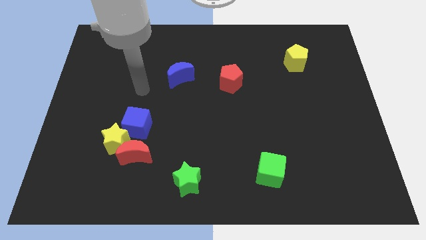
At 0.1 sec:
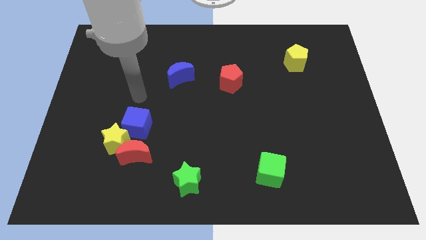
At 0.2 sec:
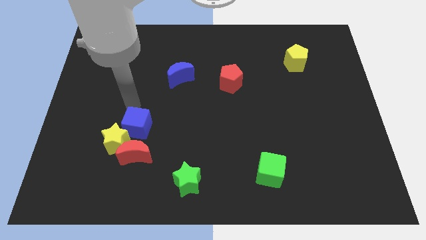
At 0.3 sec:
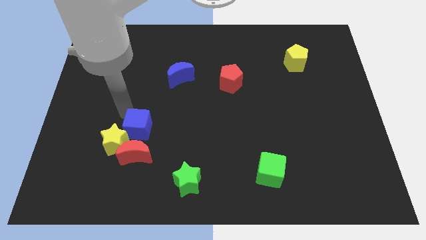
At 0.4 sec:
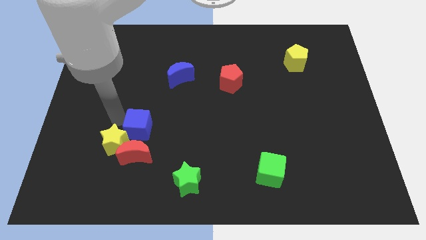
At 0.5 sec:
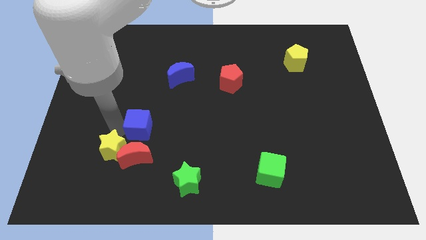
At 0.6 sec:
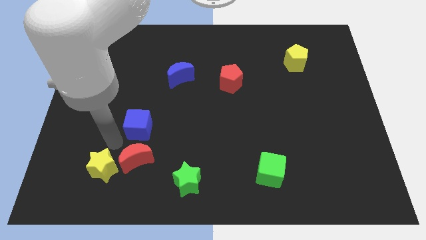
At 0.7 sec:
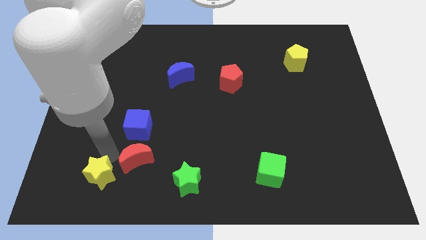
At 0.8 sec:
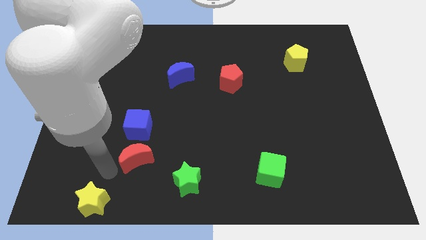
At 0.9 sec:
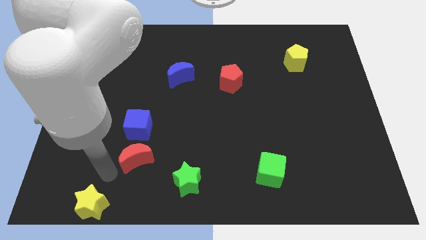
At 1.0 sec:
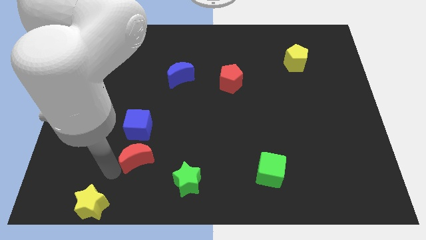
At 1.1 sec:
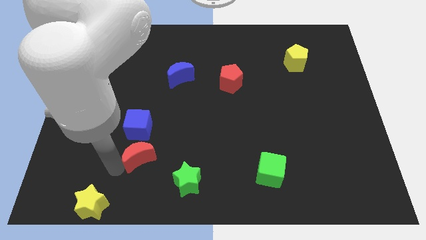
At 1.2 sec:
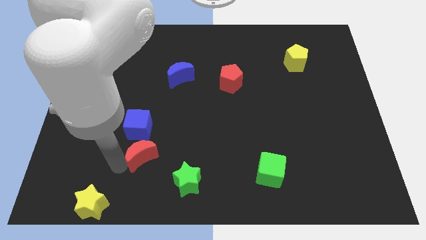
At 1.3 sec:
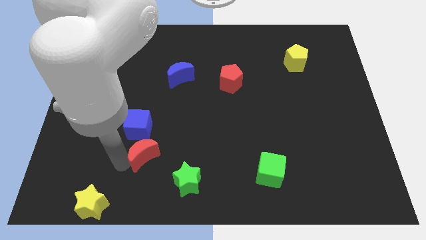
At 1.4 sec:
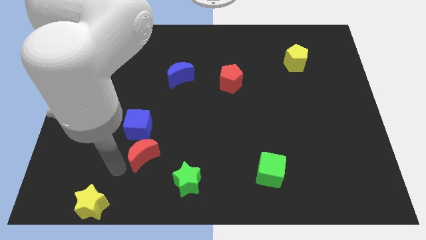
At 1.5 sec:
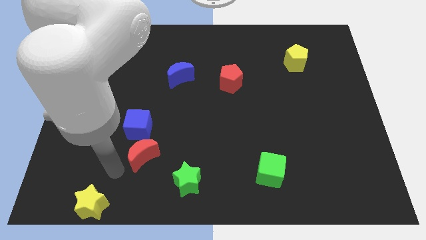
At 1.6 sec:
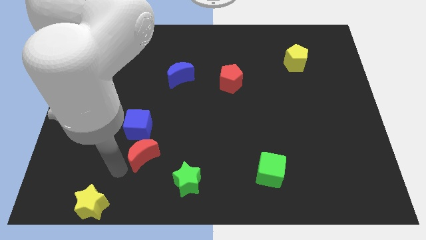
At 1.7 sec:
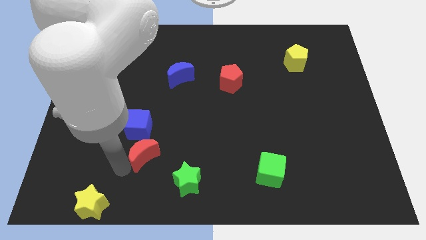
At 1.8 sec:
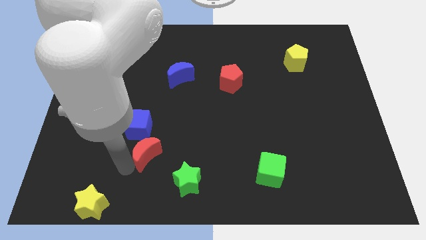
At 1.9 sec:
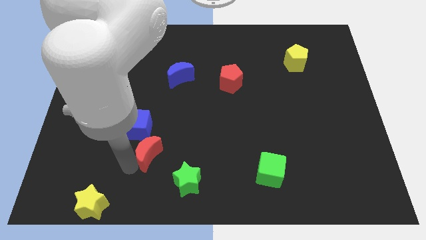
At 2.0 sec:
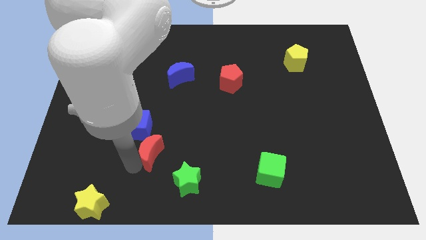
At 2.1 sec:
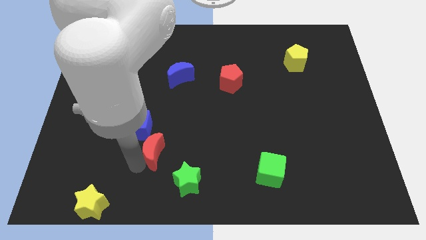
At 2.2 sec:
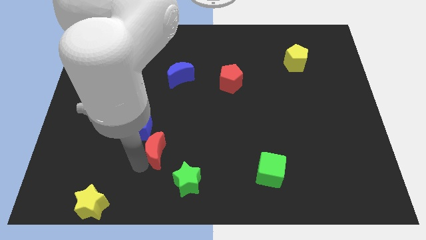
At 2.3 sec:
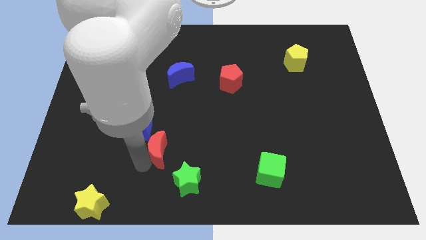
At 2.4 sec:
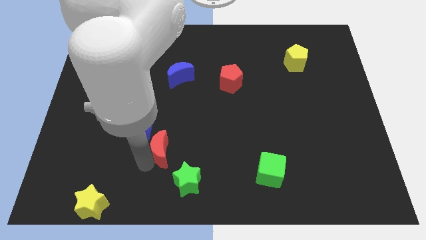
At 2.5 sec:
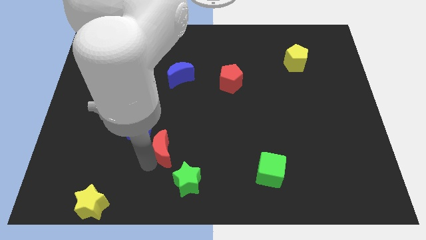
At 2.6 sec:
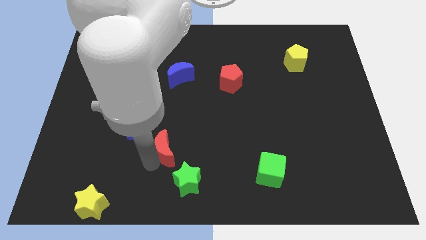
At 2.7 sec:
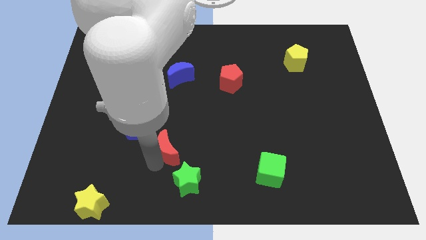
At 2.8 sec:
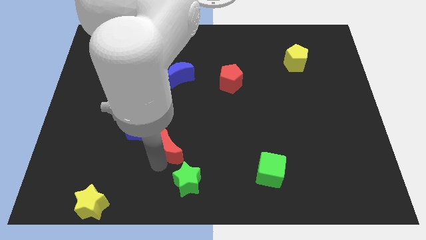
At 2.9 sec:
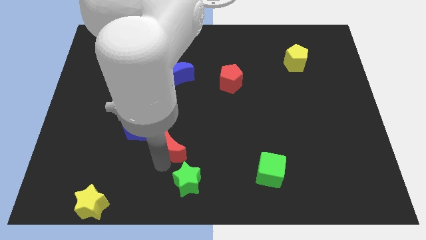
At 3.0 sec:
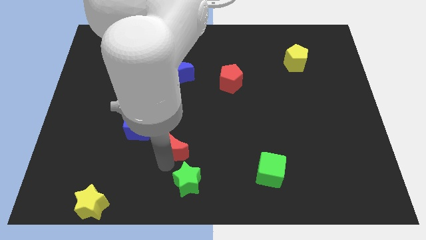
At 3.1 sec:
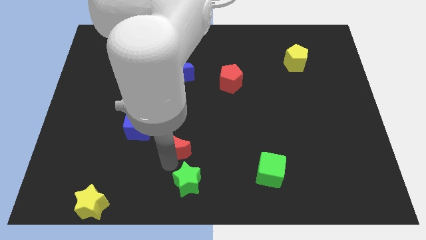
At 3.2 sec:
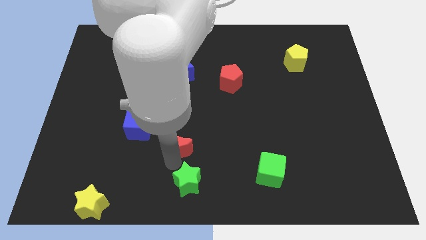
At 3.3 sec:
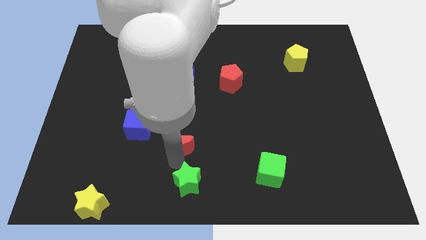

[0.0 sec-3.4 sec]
push the red moon somewhat upwards and then right

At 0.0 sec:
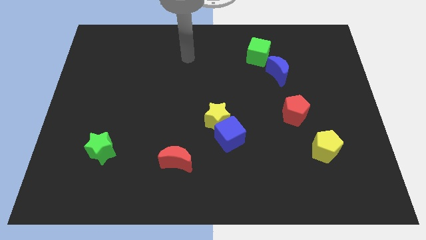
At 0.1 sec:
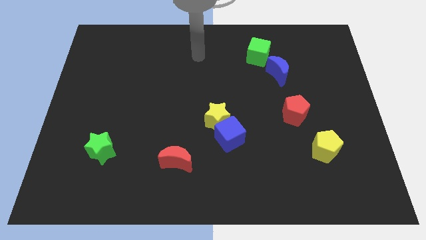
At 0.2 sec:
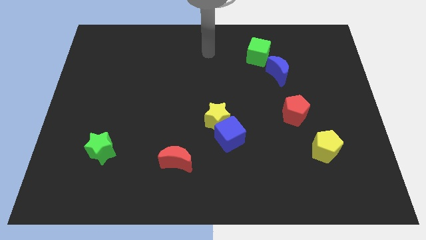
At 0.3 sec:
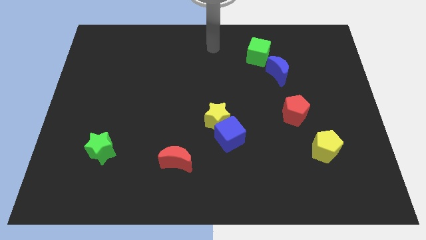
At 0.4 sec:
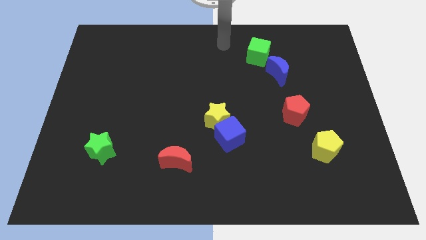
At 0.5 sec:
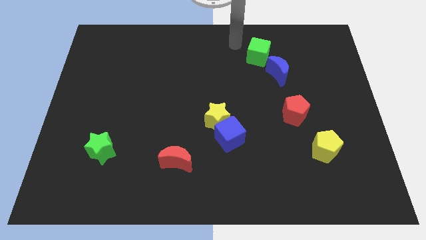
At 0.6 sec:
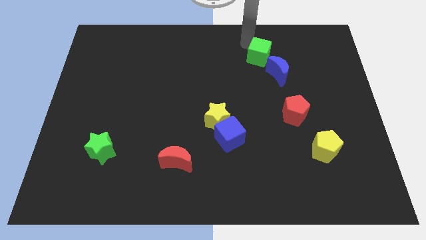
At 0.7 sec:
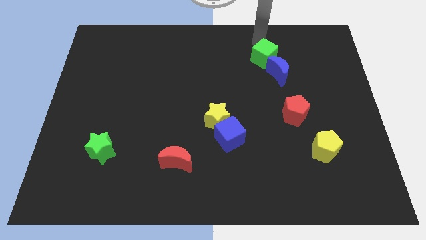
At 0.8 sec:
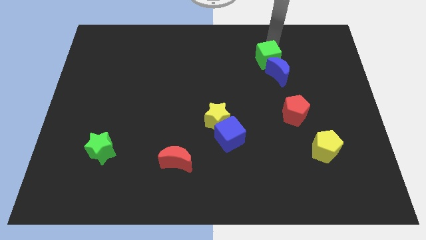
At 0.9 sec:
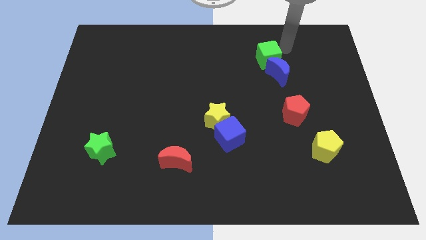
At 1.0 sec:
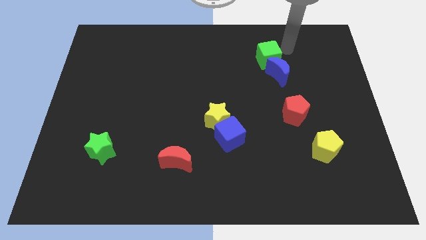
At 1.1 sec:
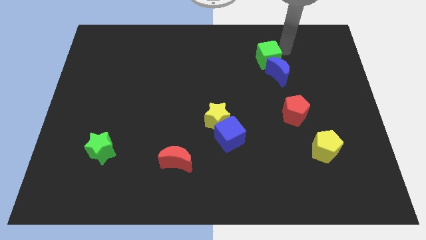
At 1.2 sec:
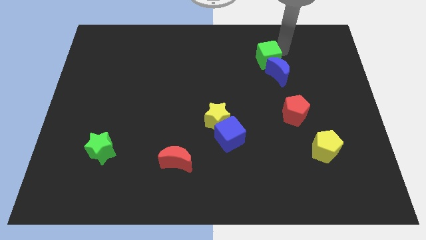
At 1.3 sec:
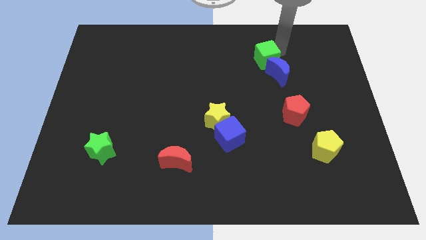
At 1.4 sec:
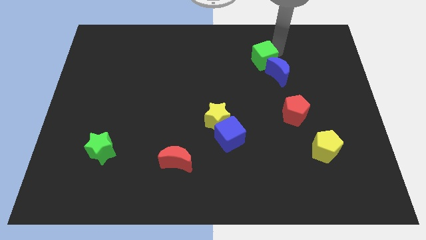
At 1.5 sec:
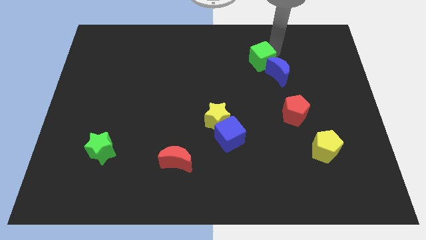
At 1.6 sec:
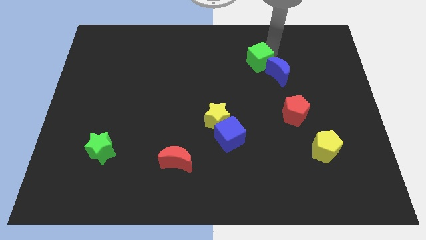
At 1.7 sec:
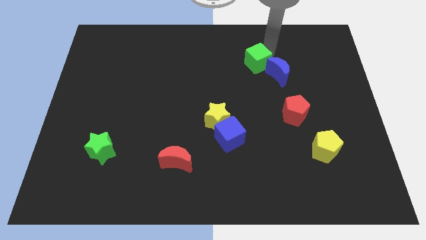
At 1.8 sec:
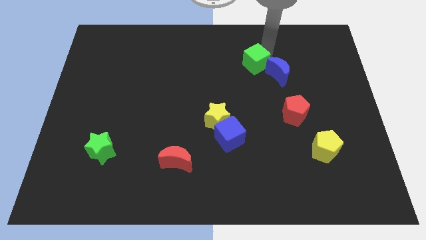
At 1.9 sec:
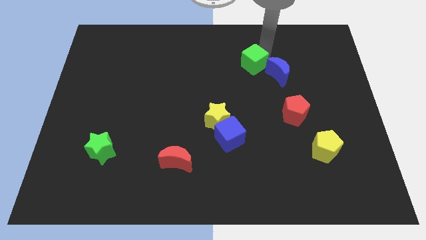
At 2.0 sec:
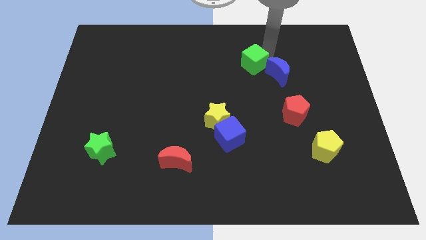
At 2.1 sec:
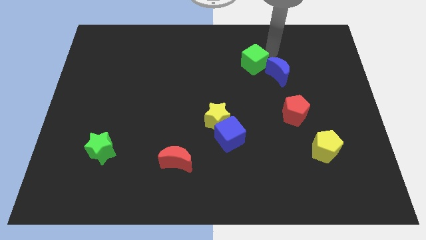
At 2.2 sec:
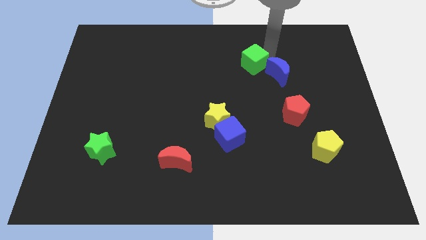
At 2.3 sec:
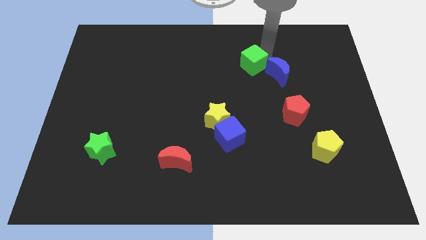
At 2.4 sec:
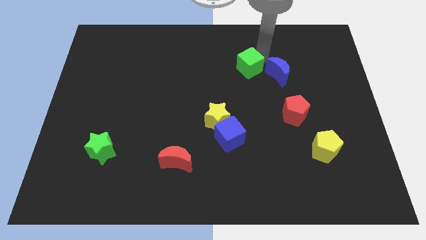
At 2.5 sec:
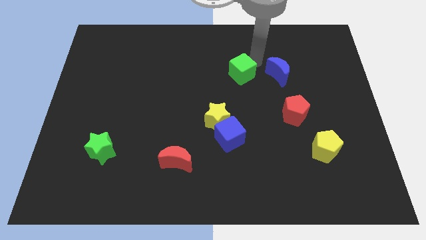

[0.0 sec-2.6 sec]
slightly move the green cube diagonally downwards and left

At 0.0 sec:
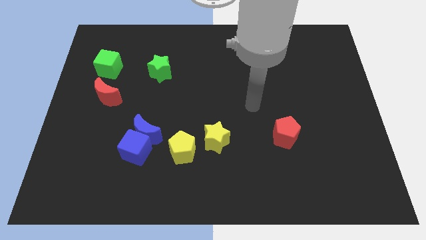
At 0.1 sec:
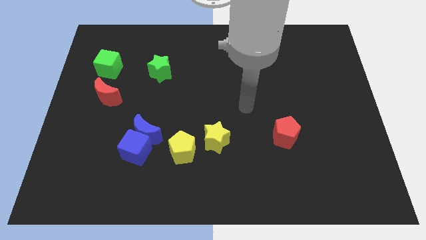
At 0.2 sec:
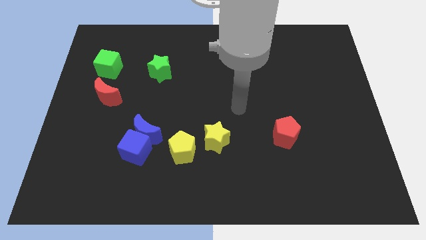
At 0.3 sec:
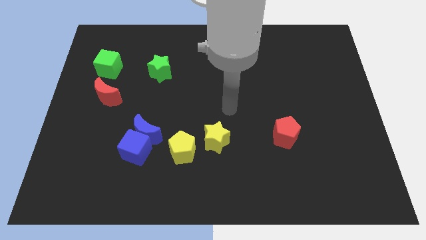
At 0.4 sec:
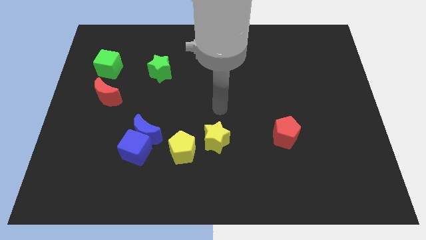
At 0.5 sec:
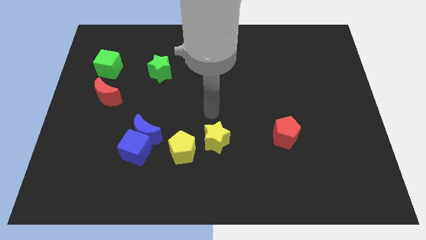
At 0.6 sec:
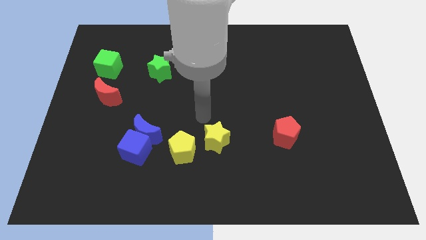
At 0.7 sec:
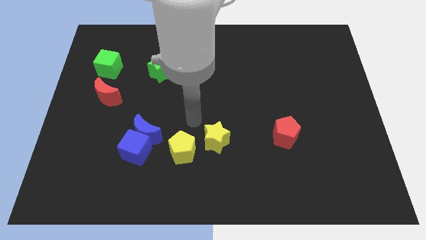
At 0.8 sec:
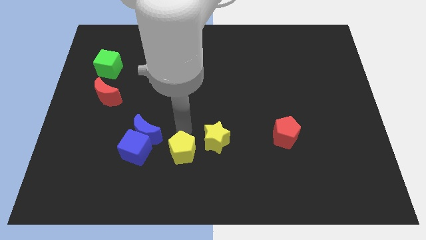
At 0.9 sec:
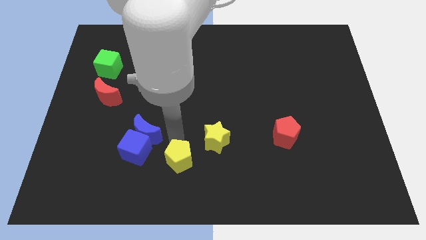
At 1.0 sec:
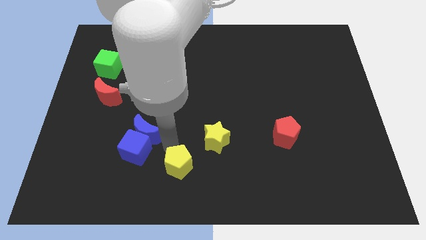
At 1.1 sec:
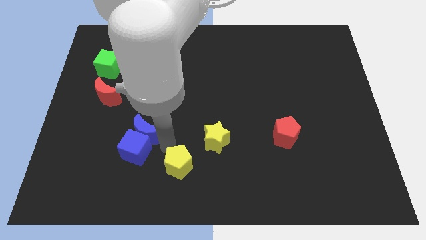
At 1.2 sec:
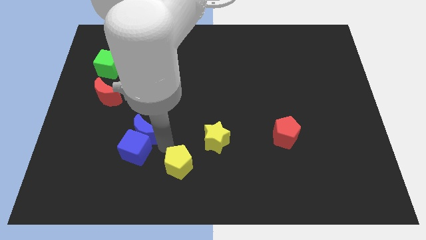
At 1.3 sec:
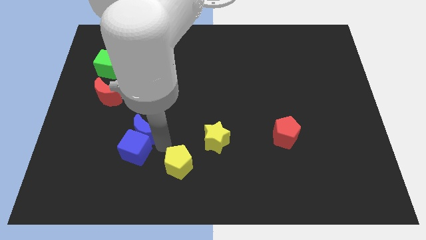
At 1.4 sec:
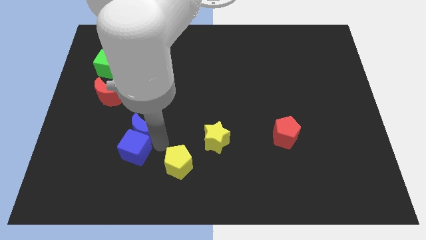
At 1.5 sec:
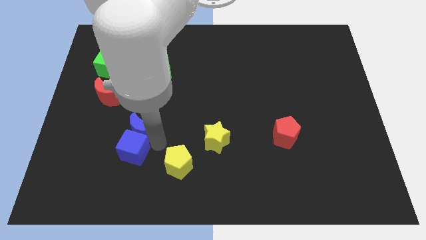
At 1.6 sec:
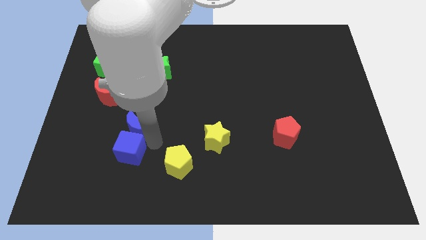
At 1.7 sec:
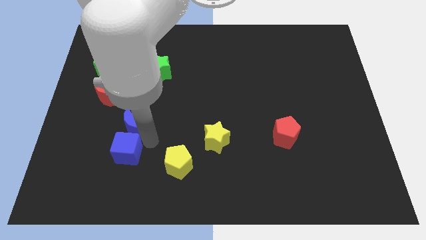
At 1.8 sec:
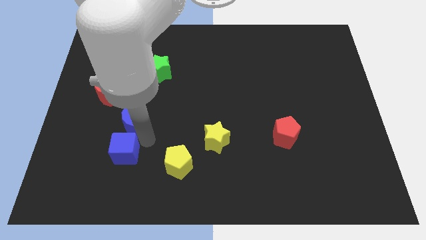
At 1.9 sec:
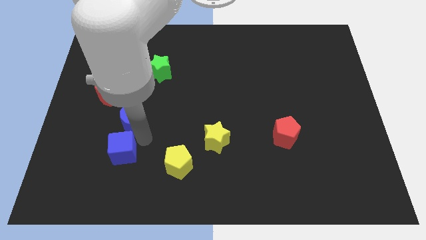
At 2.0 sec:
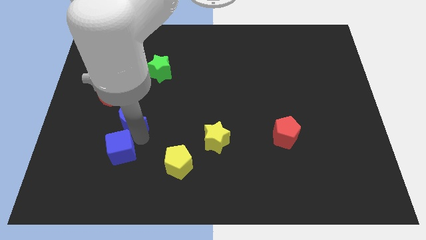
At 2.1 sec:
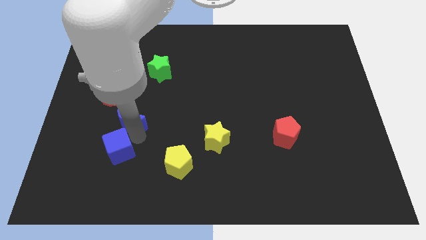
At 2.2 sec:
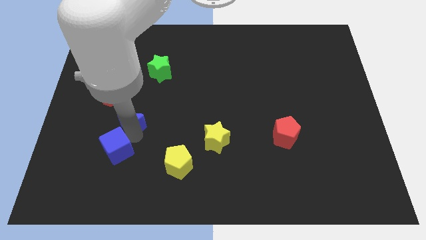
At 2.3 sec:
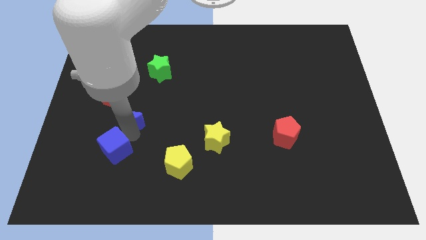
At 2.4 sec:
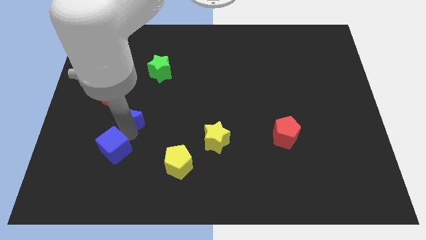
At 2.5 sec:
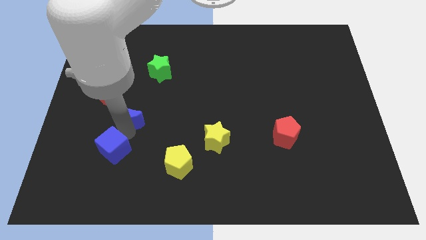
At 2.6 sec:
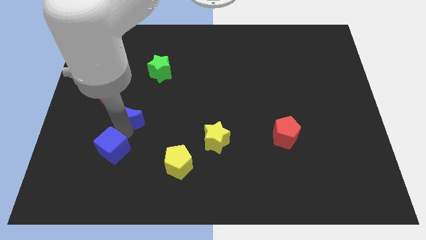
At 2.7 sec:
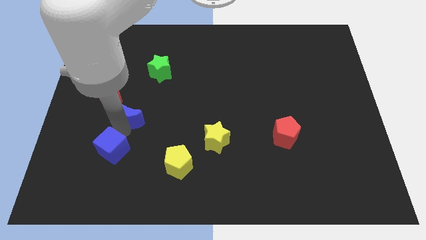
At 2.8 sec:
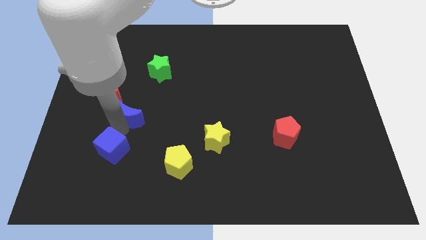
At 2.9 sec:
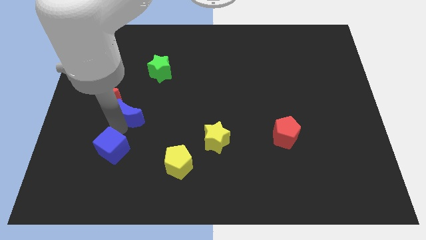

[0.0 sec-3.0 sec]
move the blue moon diagonally up and left a little
